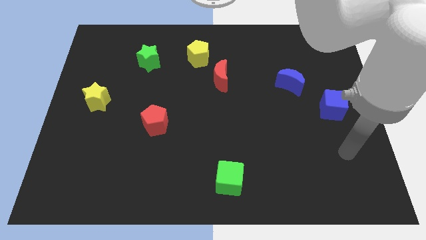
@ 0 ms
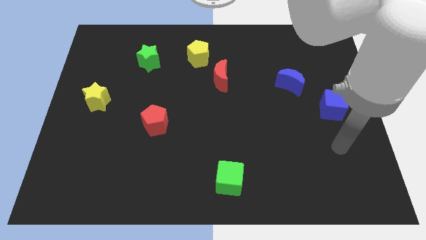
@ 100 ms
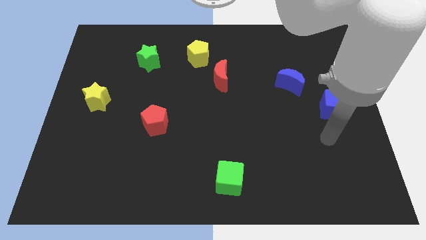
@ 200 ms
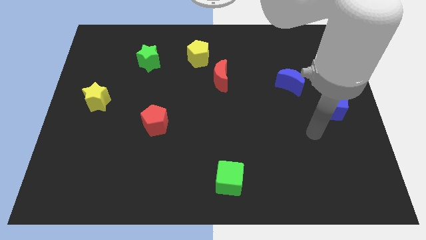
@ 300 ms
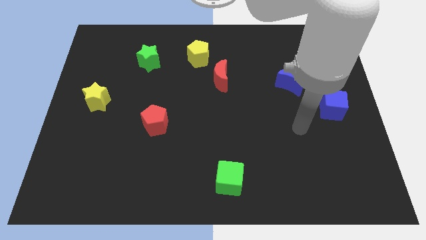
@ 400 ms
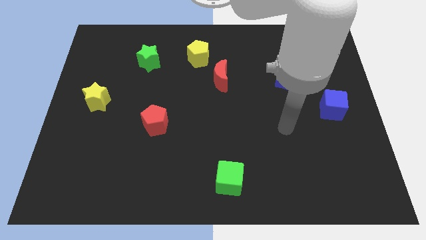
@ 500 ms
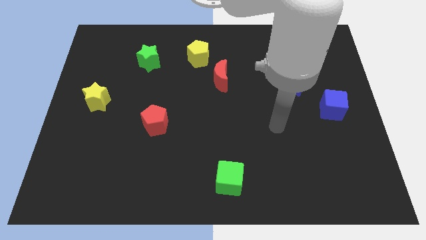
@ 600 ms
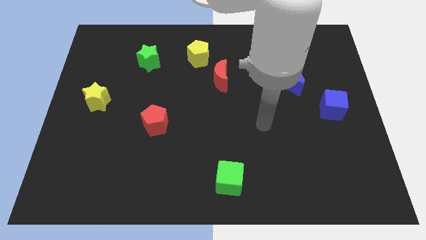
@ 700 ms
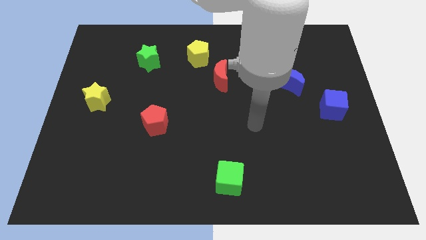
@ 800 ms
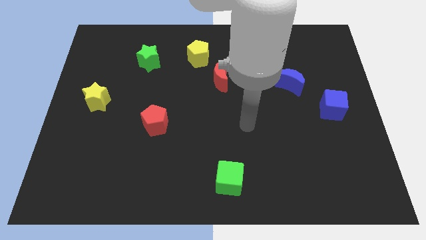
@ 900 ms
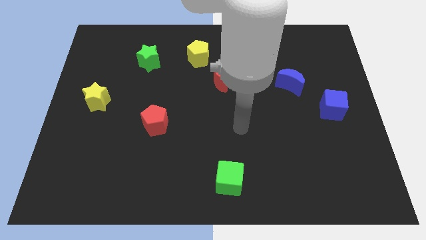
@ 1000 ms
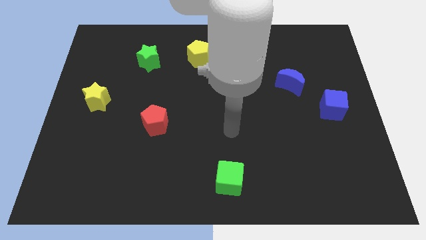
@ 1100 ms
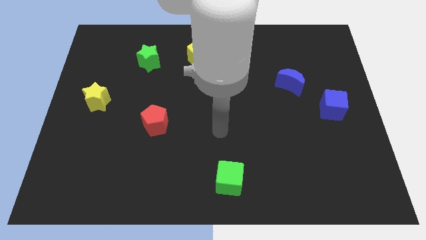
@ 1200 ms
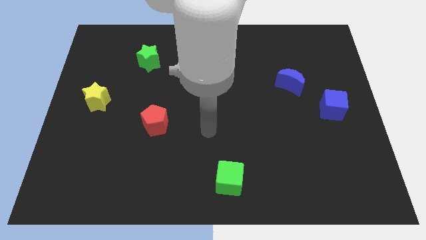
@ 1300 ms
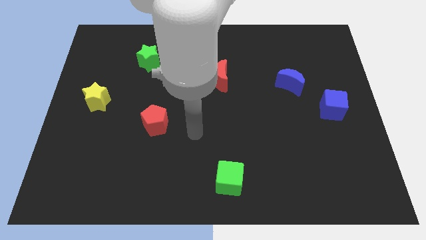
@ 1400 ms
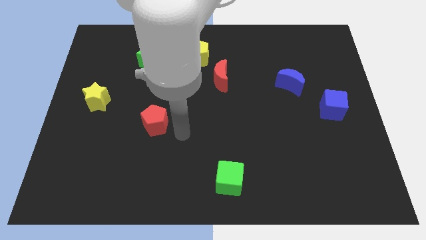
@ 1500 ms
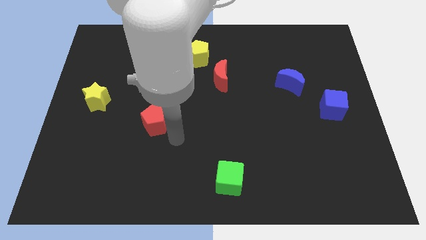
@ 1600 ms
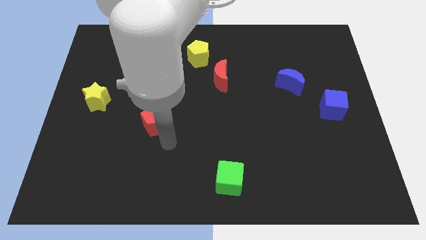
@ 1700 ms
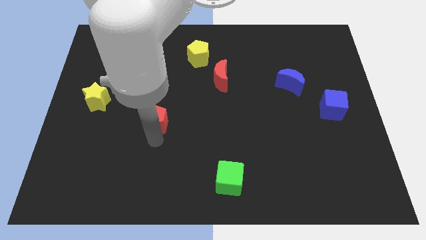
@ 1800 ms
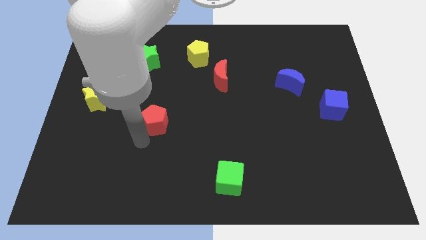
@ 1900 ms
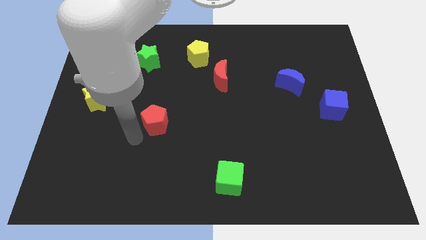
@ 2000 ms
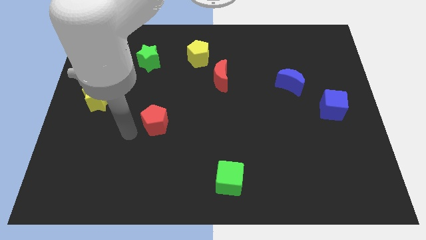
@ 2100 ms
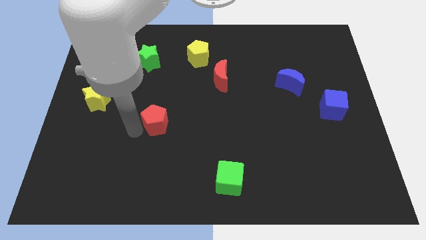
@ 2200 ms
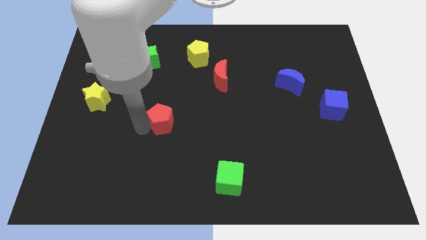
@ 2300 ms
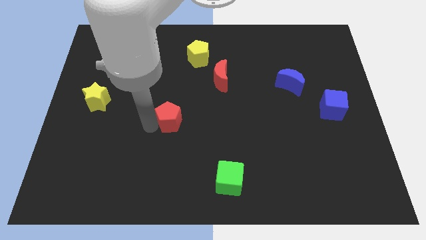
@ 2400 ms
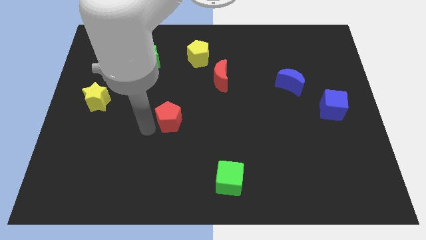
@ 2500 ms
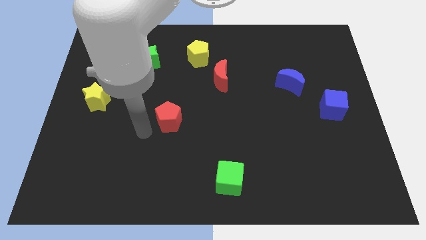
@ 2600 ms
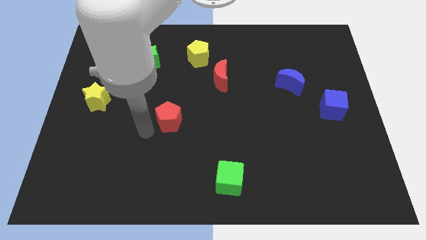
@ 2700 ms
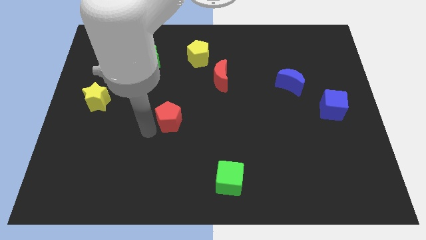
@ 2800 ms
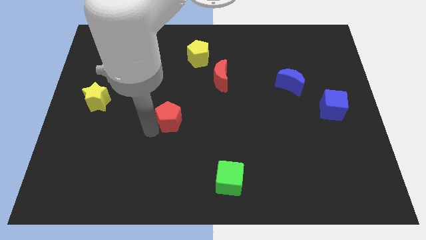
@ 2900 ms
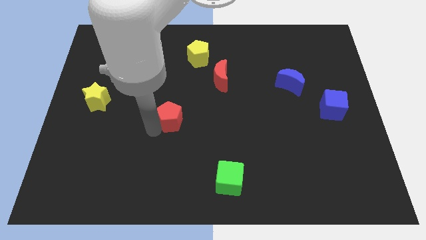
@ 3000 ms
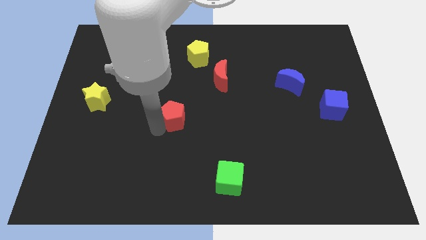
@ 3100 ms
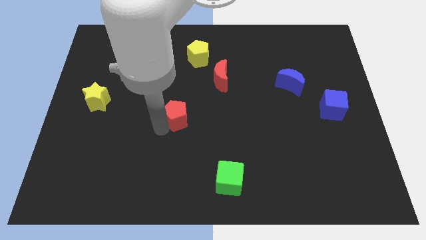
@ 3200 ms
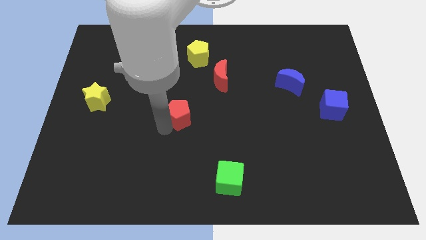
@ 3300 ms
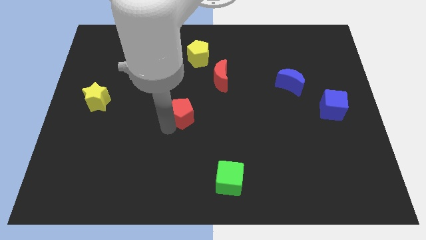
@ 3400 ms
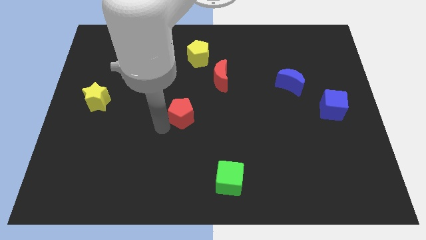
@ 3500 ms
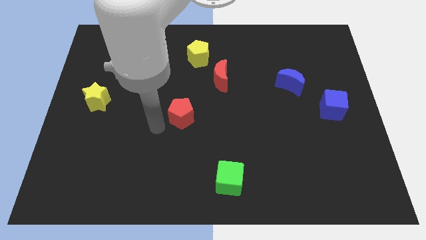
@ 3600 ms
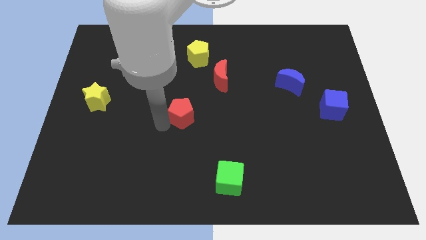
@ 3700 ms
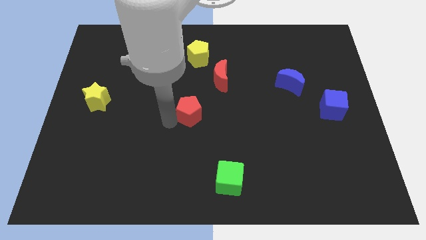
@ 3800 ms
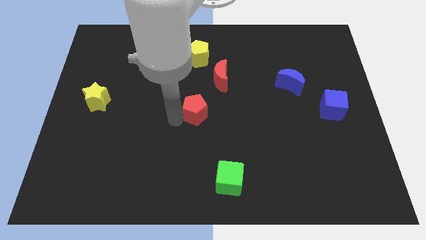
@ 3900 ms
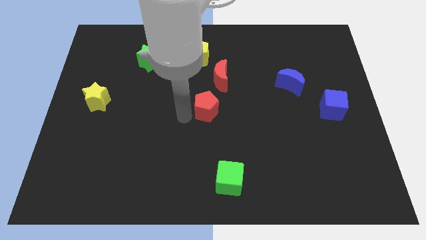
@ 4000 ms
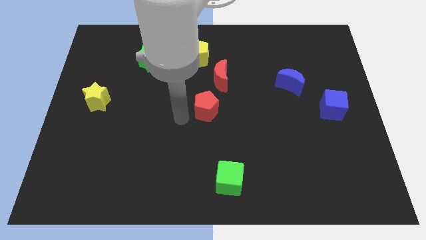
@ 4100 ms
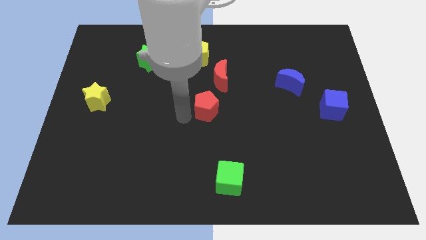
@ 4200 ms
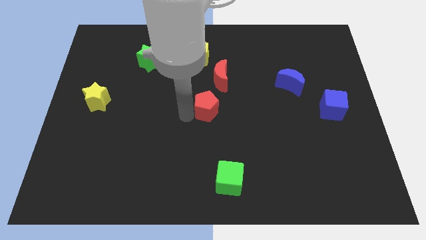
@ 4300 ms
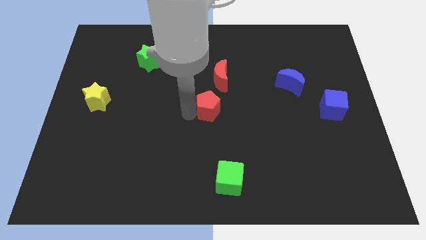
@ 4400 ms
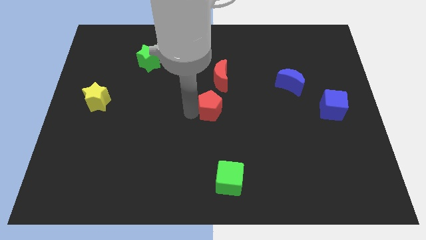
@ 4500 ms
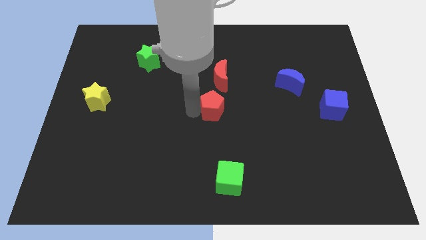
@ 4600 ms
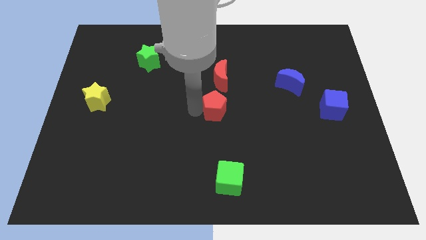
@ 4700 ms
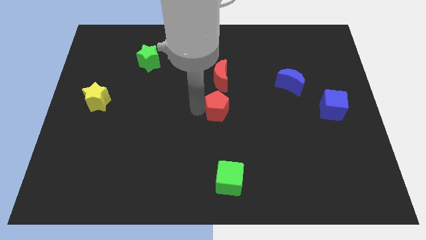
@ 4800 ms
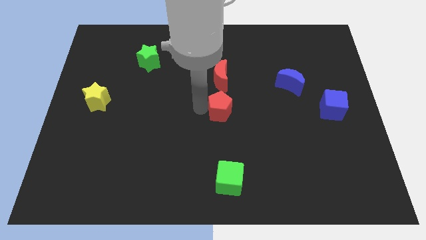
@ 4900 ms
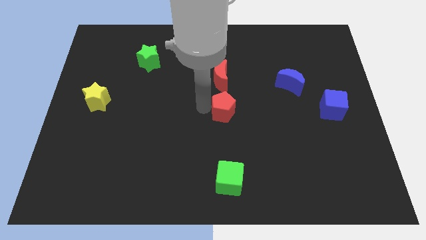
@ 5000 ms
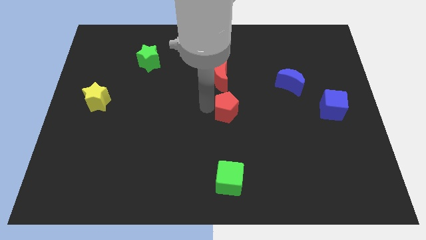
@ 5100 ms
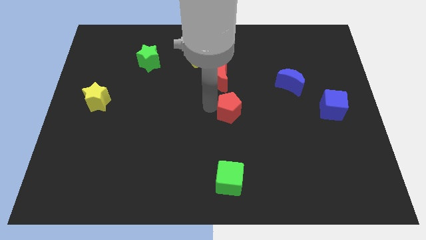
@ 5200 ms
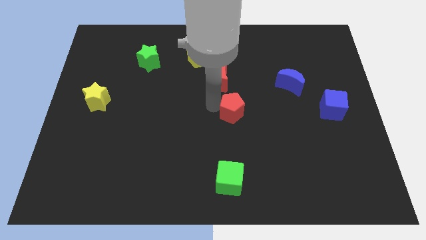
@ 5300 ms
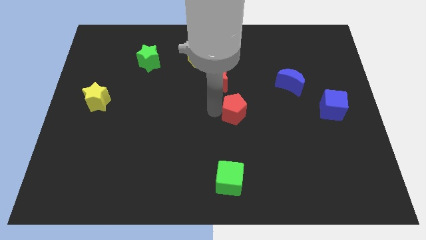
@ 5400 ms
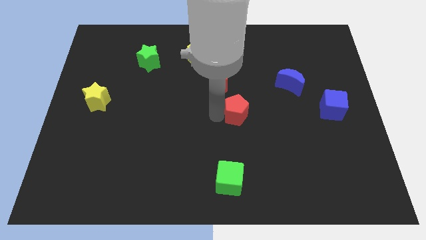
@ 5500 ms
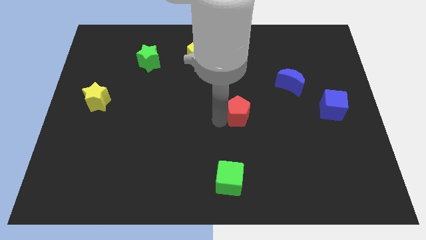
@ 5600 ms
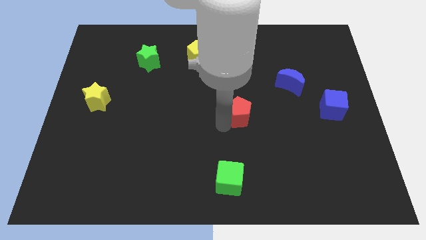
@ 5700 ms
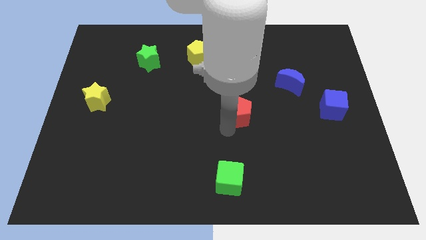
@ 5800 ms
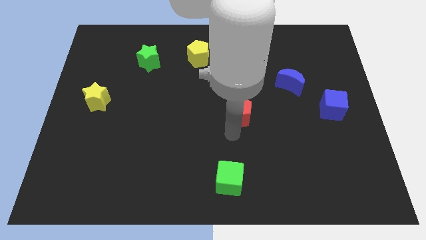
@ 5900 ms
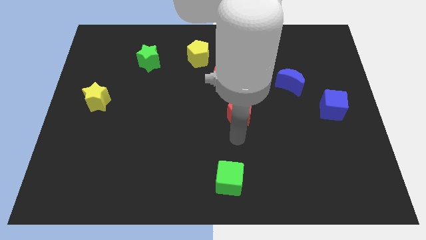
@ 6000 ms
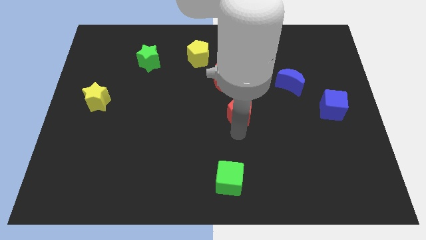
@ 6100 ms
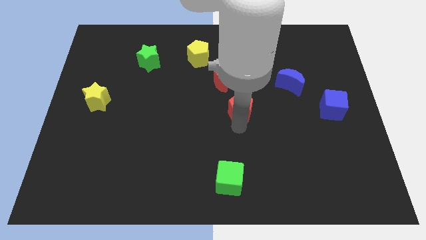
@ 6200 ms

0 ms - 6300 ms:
move the red pentagon to the bottom right of the red moon

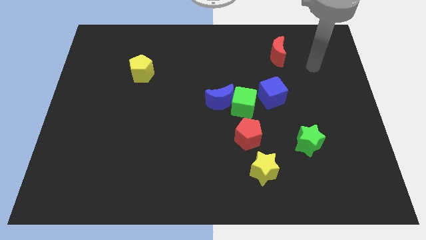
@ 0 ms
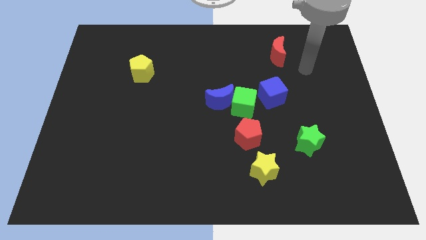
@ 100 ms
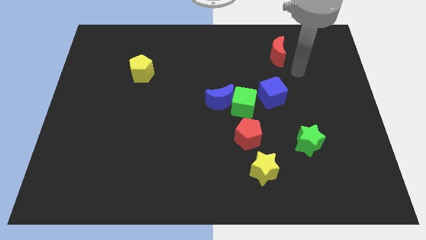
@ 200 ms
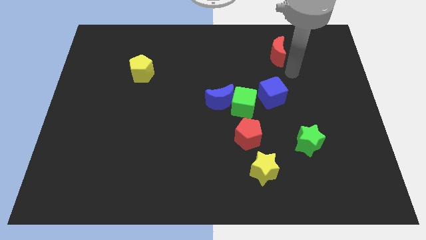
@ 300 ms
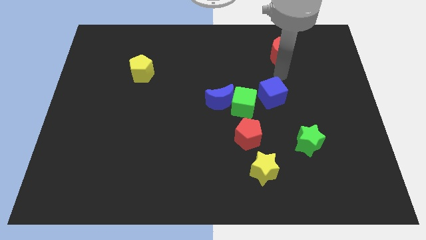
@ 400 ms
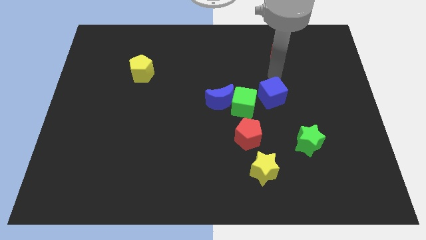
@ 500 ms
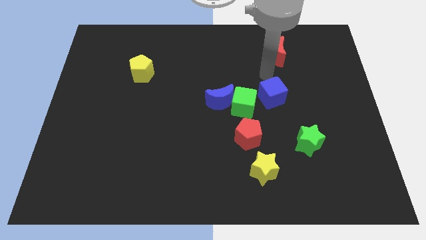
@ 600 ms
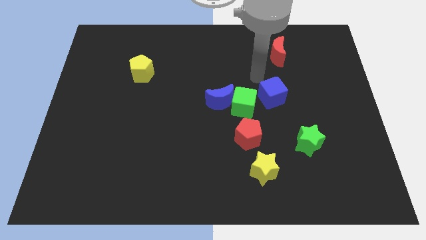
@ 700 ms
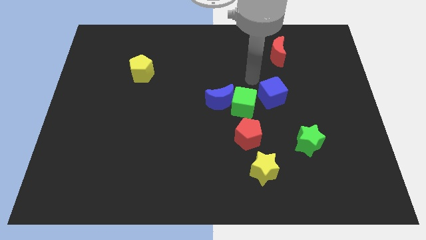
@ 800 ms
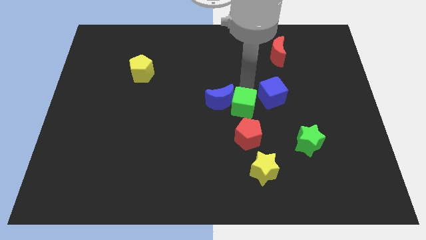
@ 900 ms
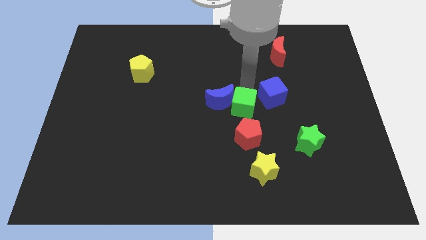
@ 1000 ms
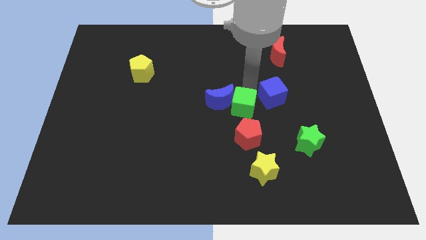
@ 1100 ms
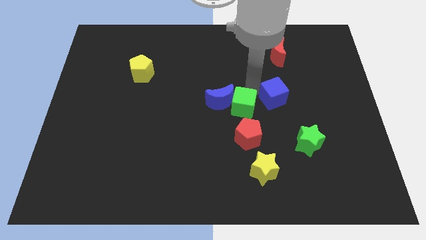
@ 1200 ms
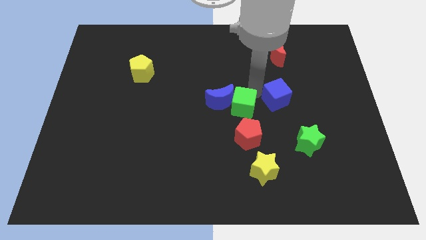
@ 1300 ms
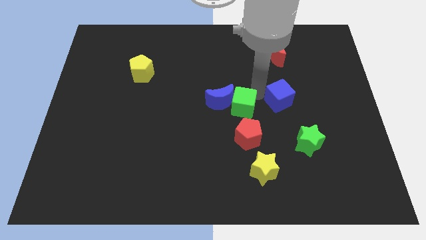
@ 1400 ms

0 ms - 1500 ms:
slide the blue cube to the top of the green star
